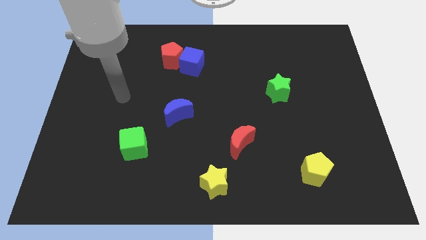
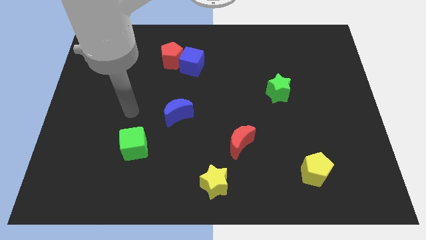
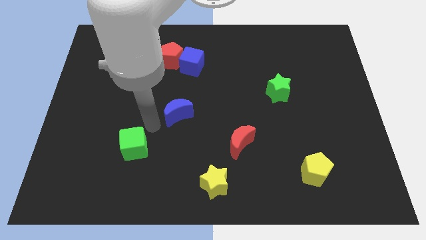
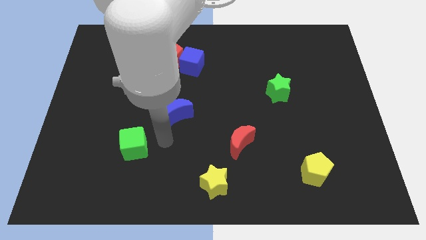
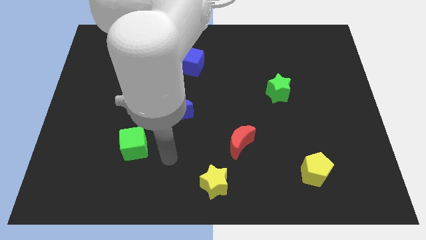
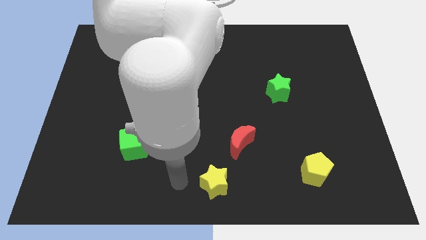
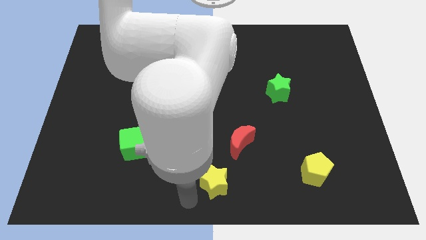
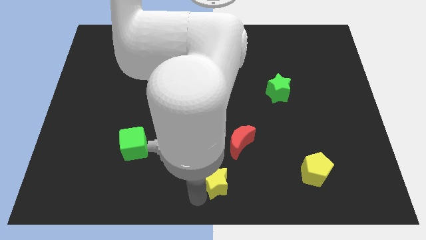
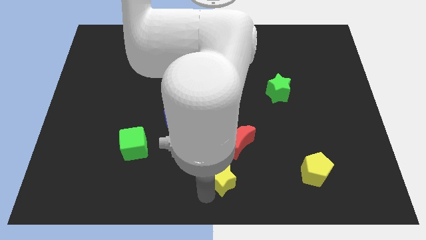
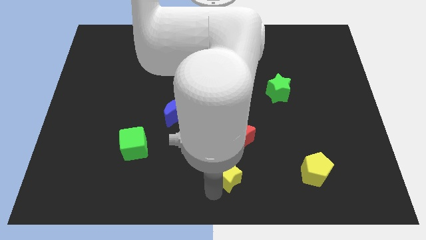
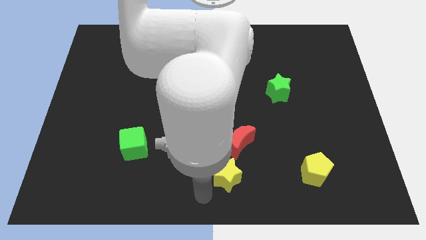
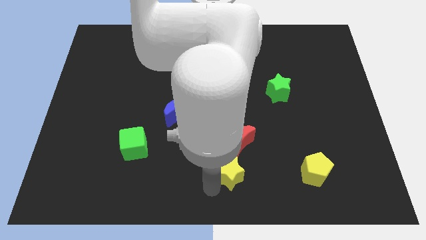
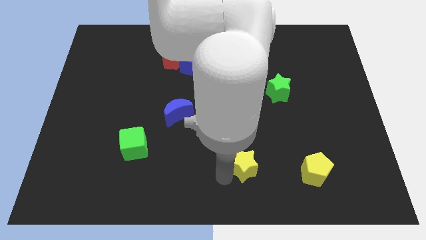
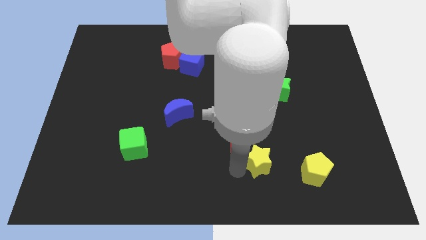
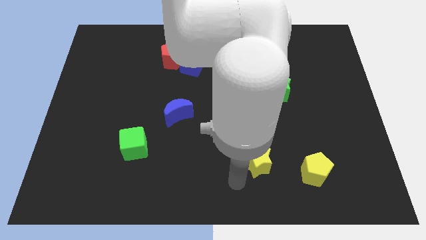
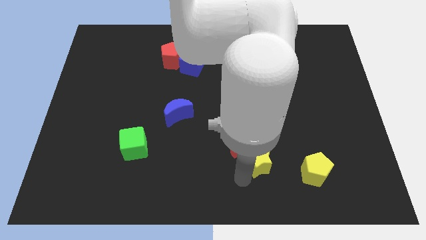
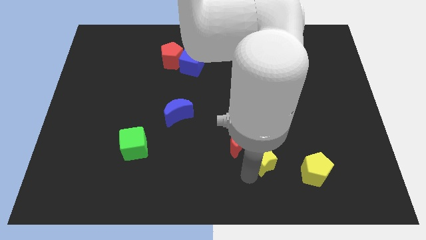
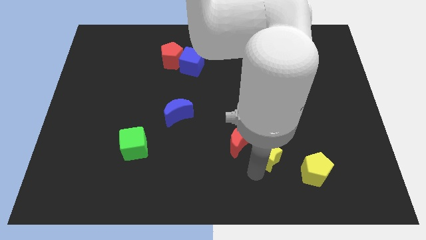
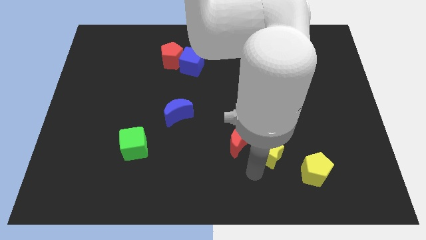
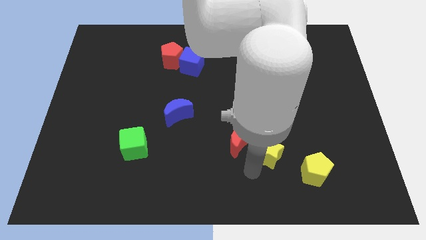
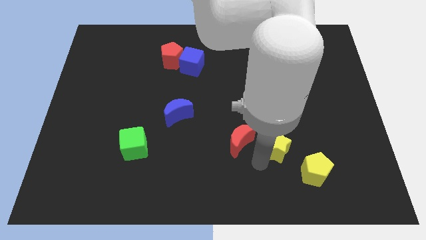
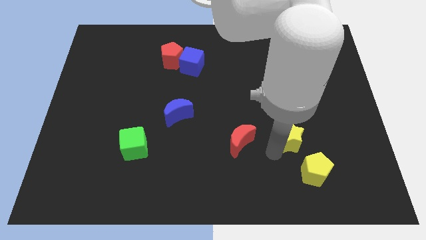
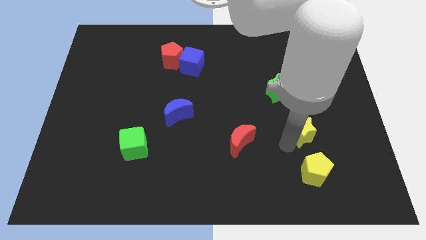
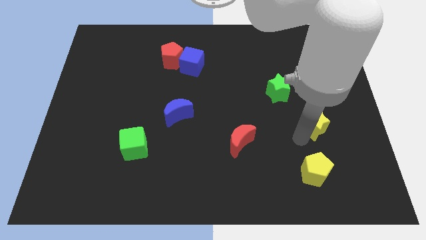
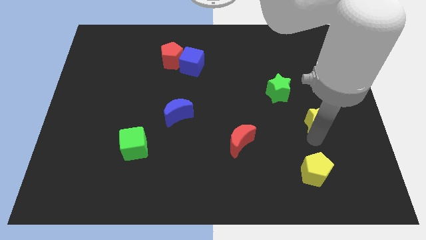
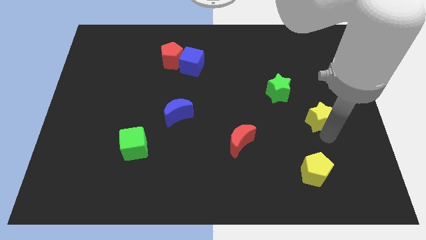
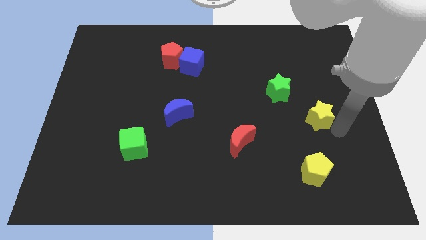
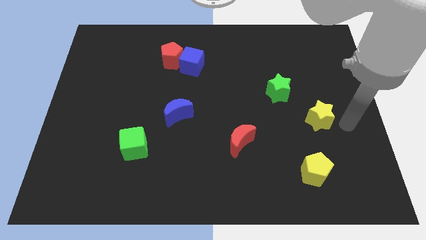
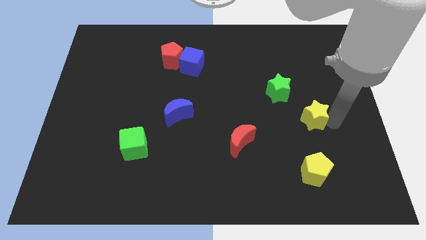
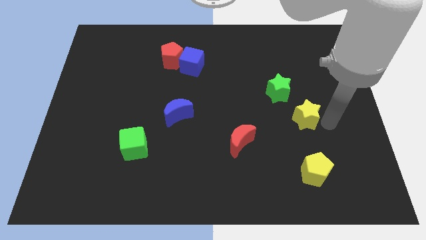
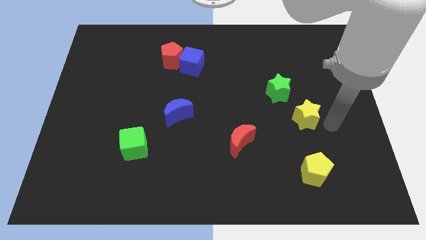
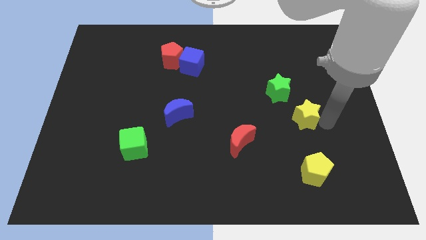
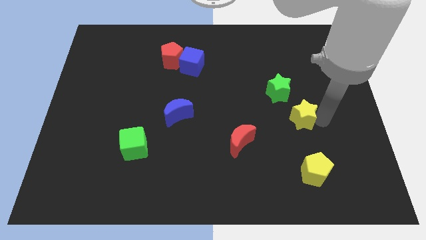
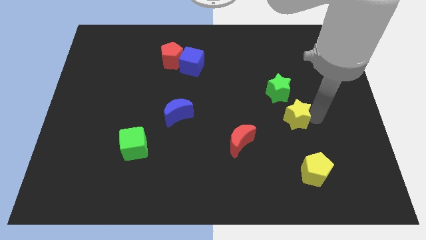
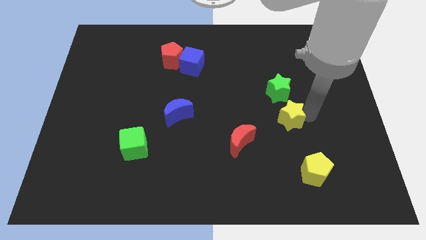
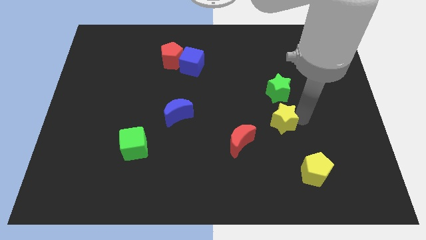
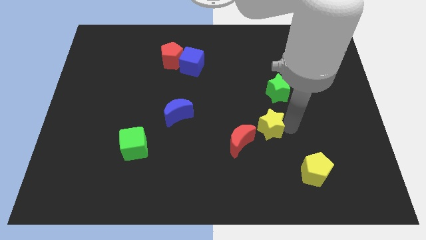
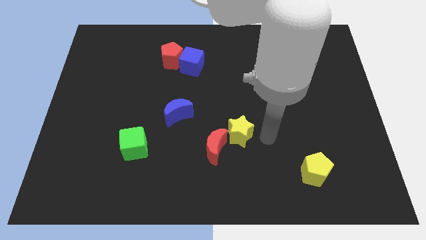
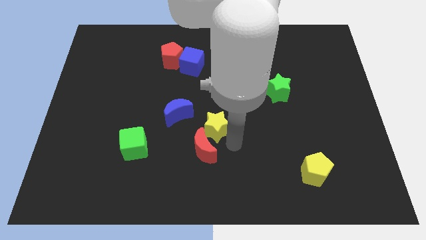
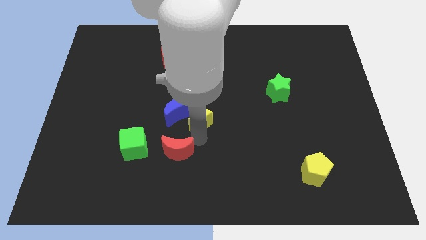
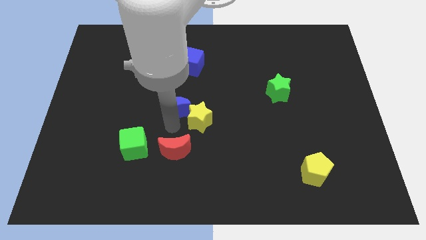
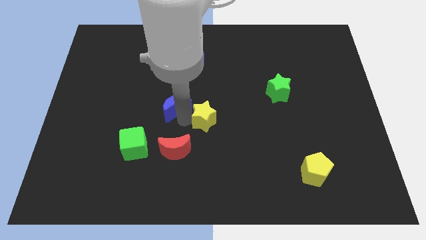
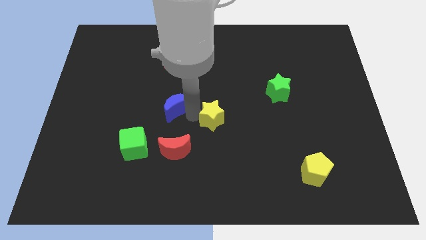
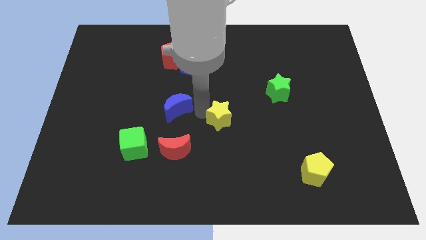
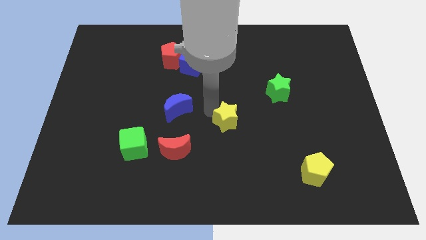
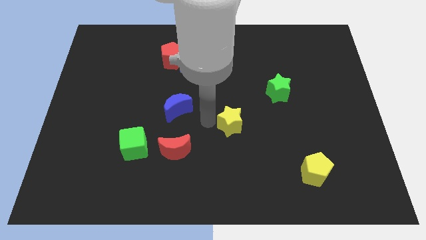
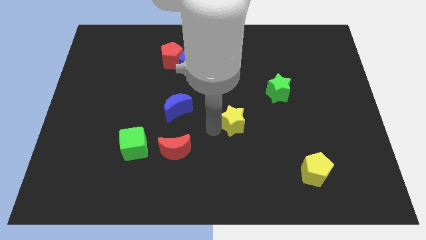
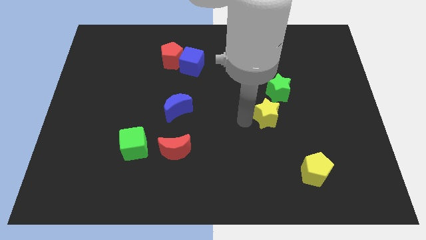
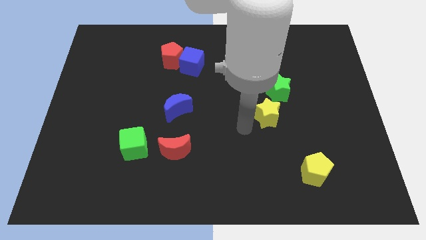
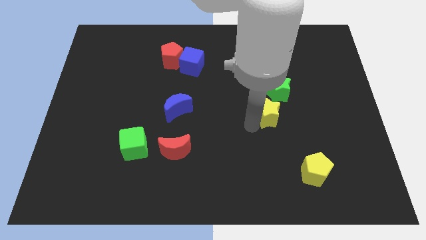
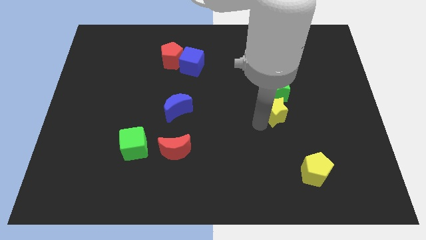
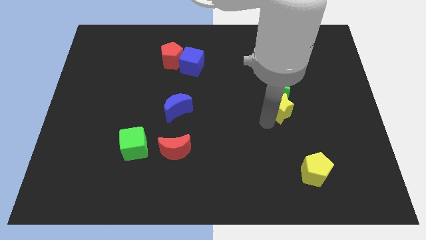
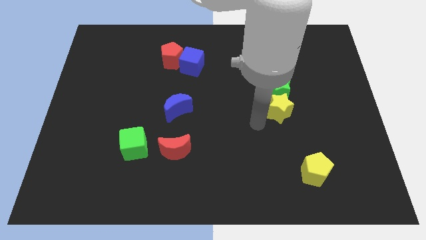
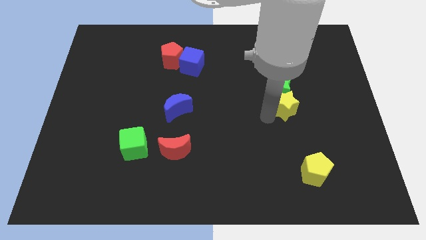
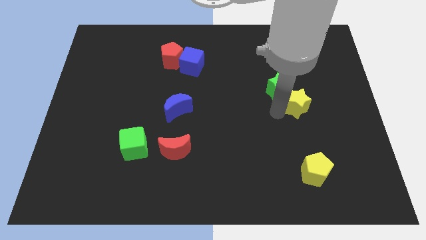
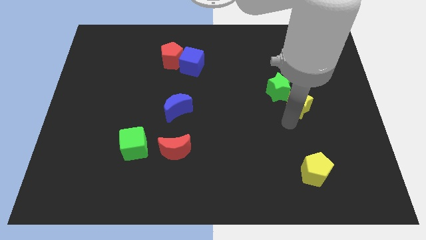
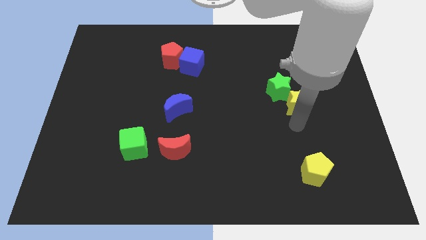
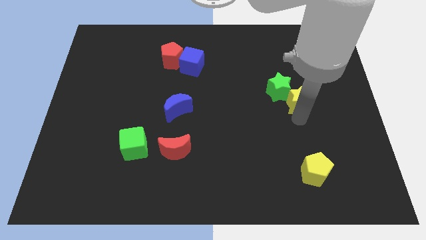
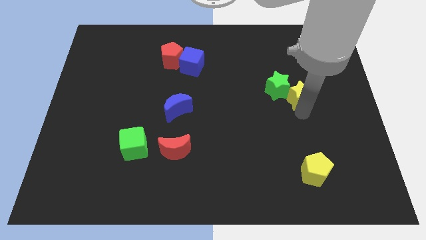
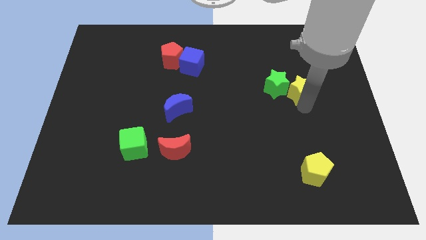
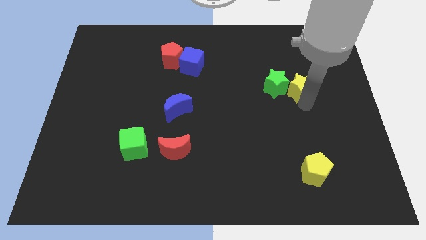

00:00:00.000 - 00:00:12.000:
put the yellow star diagonally up and to the right of the green star

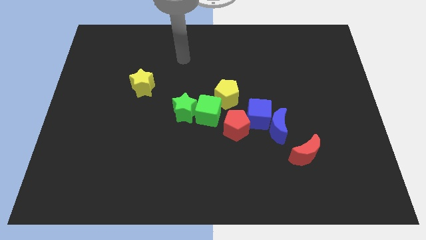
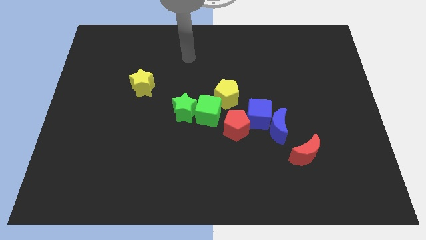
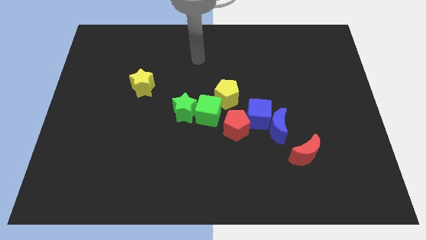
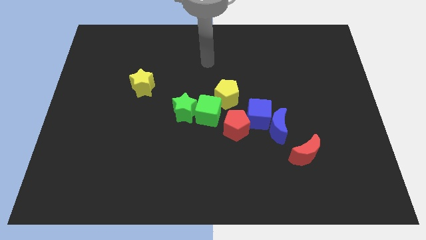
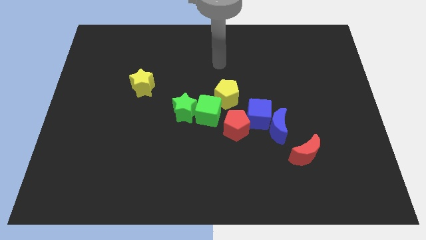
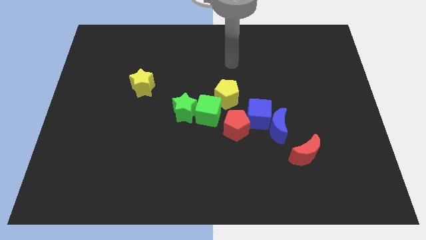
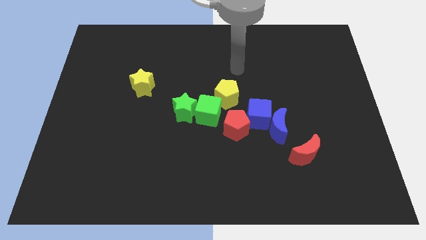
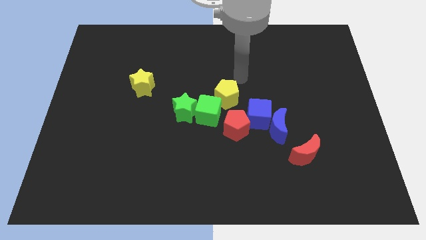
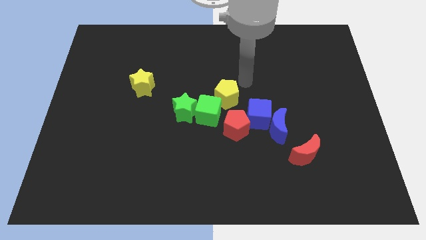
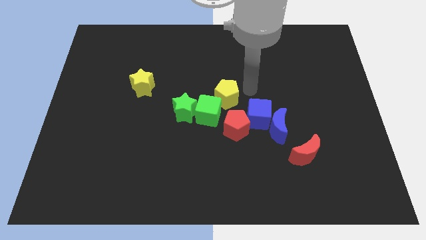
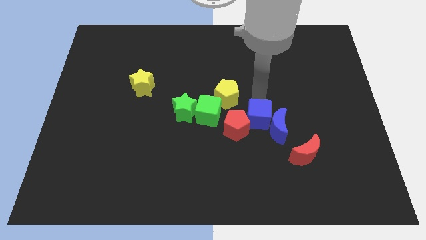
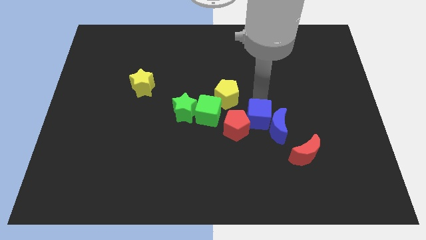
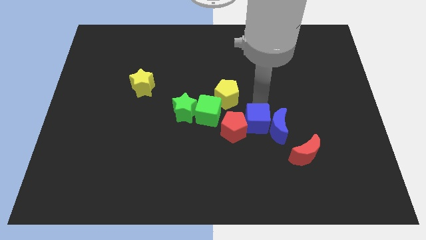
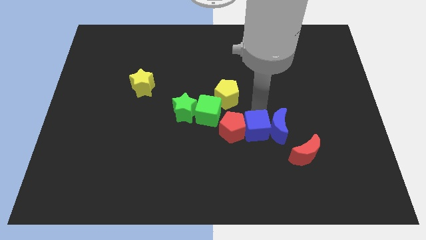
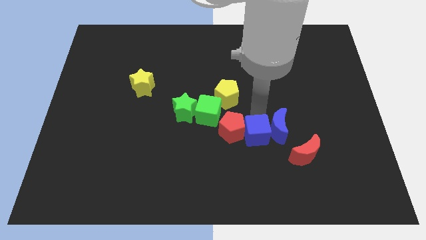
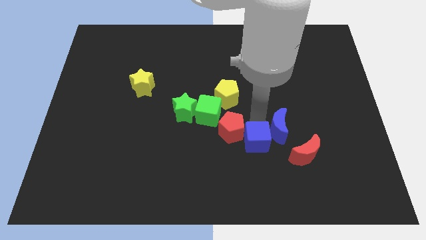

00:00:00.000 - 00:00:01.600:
push the blue cube just left of the red moon

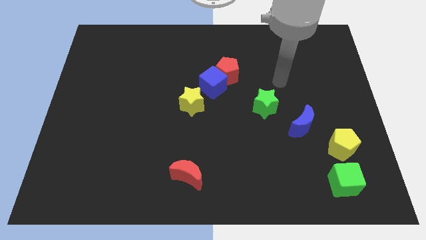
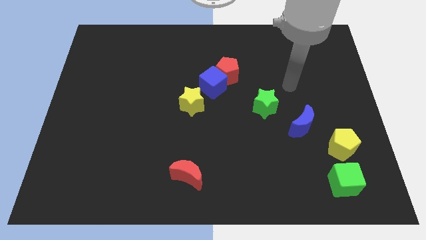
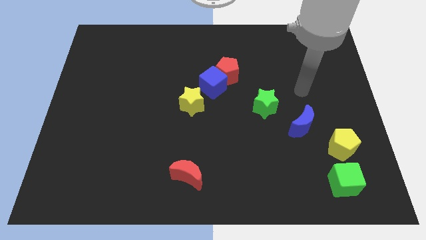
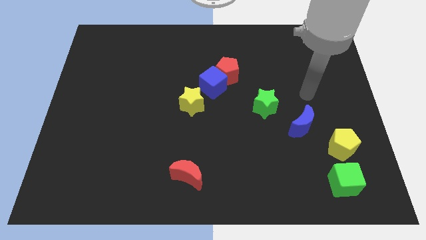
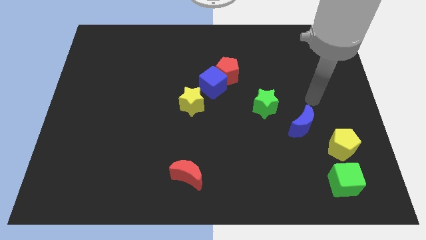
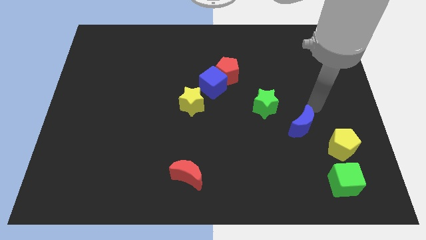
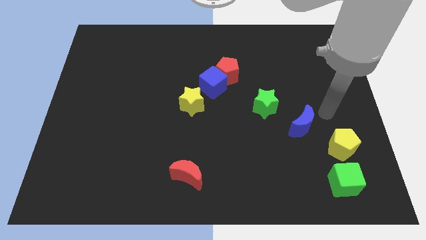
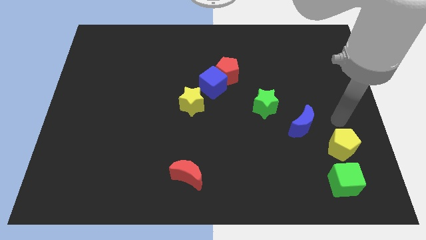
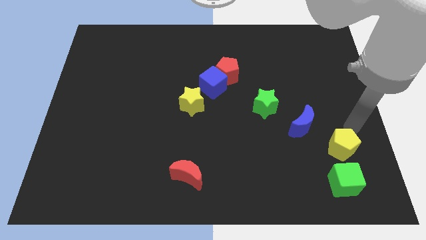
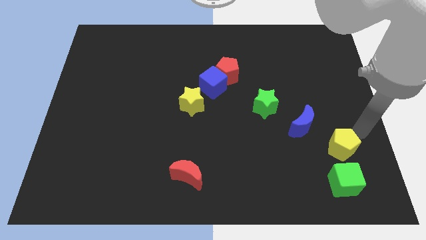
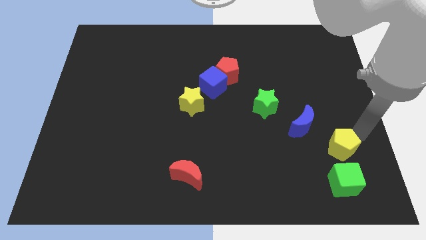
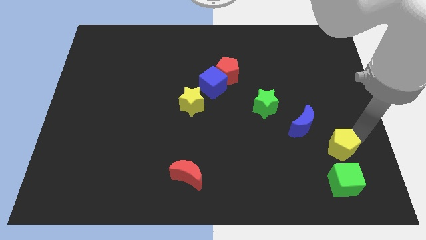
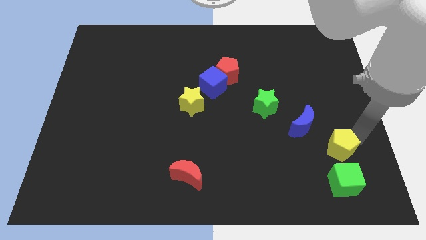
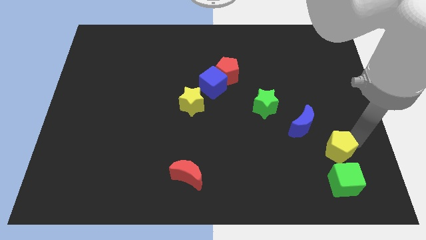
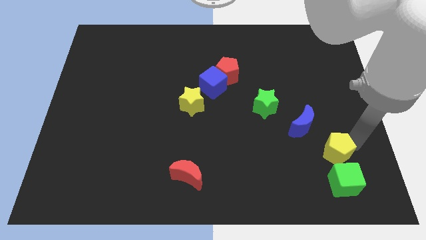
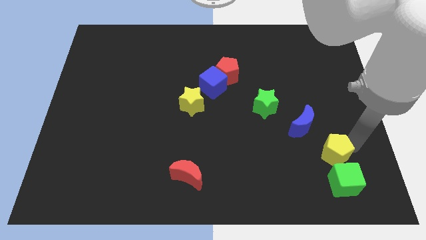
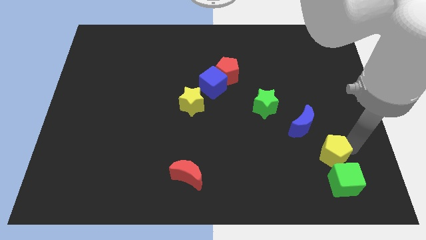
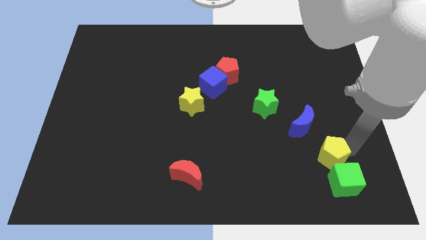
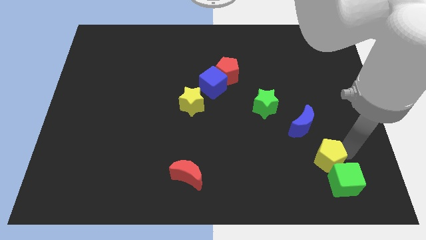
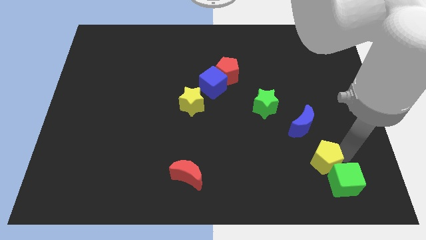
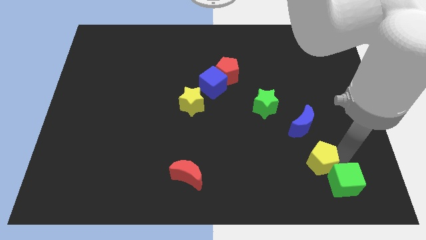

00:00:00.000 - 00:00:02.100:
slide the yellow pentagon left of the green cube
